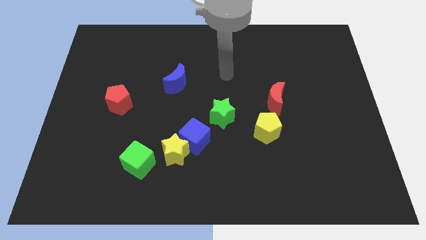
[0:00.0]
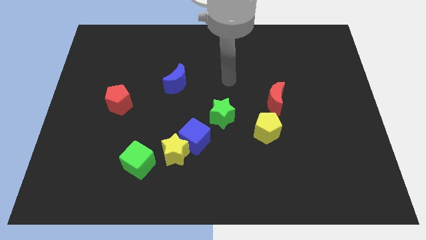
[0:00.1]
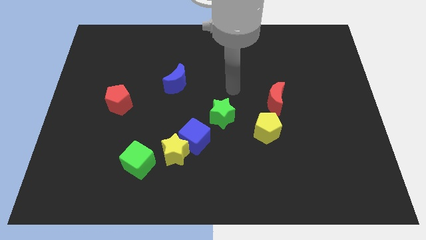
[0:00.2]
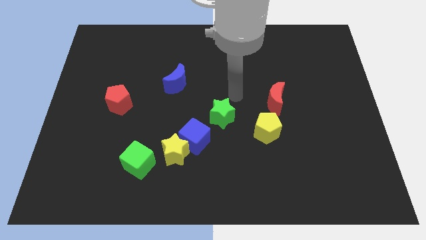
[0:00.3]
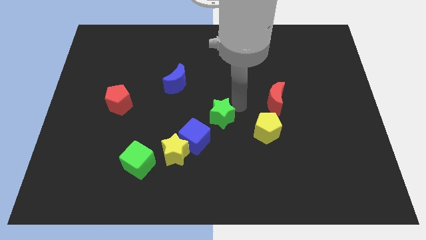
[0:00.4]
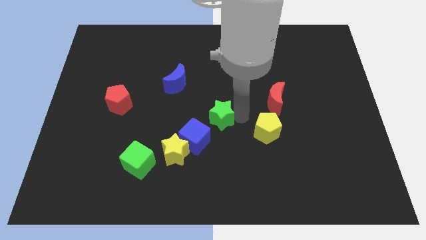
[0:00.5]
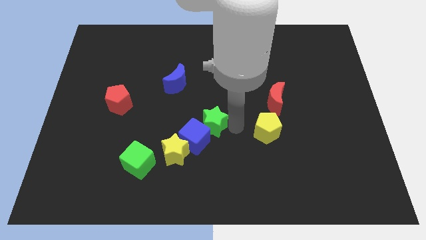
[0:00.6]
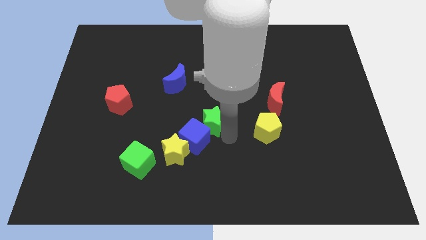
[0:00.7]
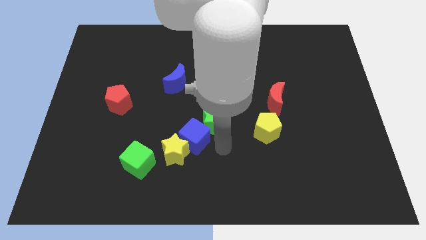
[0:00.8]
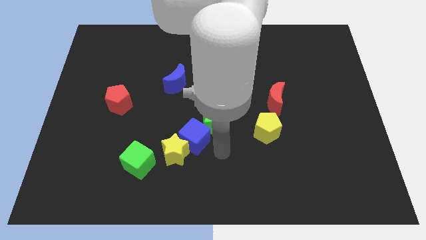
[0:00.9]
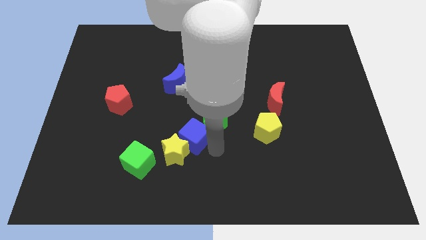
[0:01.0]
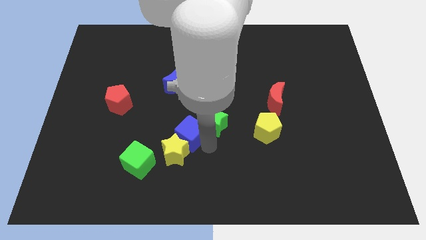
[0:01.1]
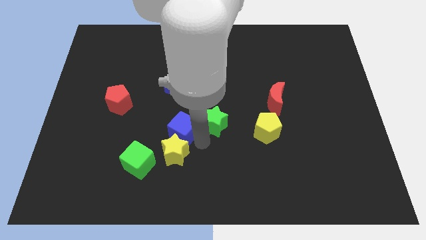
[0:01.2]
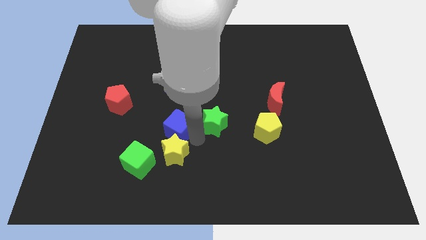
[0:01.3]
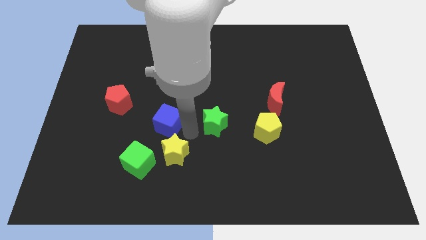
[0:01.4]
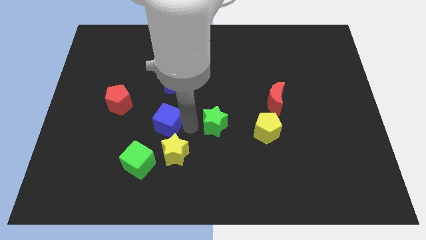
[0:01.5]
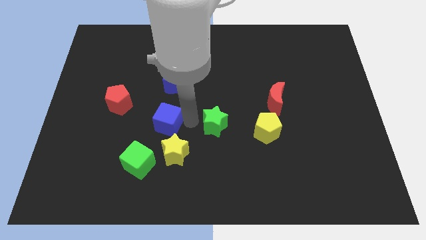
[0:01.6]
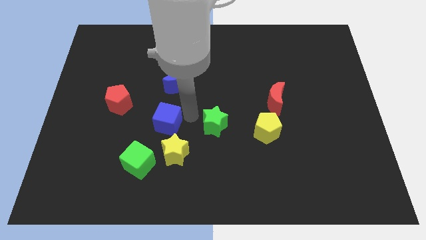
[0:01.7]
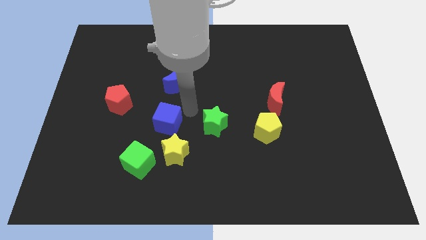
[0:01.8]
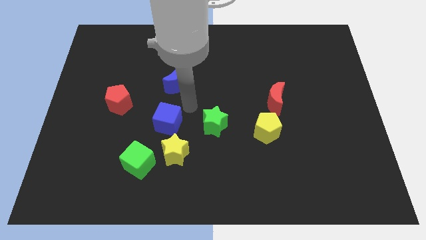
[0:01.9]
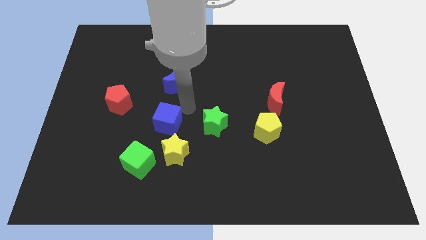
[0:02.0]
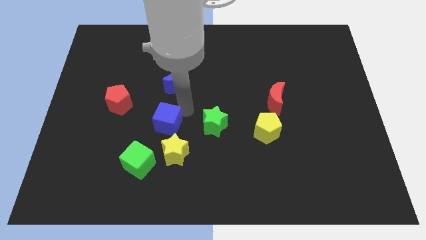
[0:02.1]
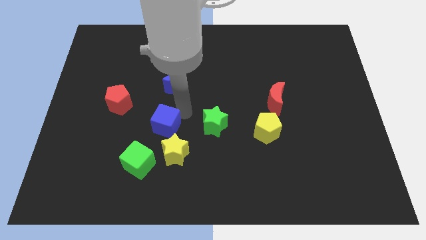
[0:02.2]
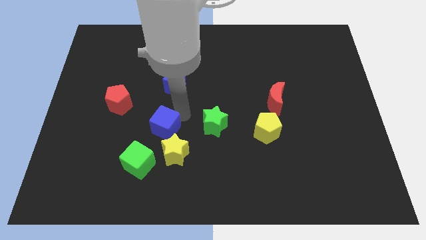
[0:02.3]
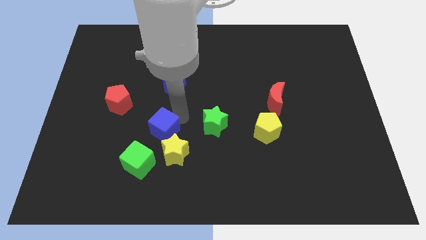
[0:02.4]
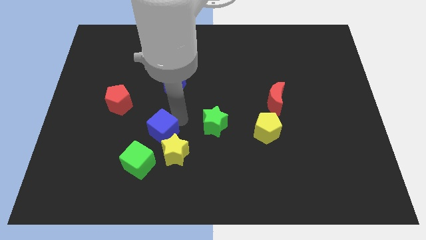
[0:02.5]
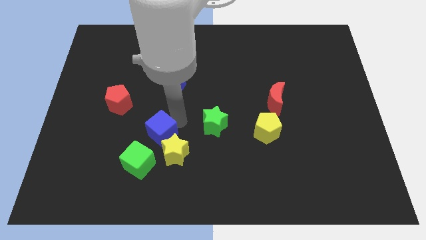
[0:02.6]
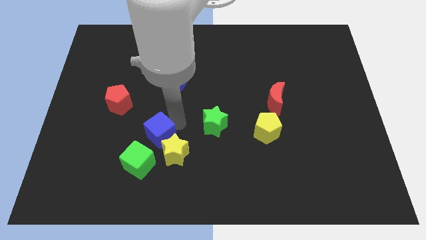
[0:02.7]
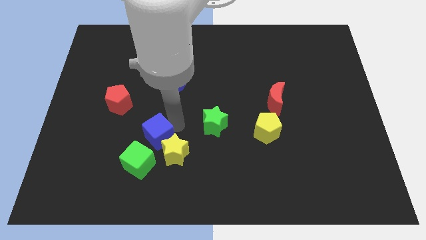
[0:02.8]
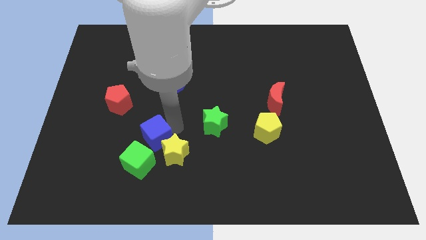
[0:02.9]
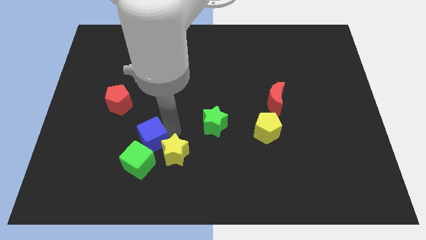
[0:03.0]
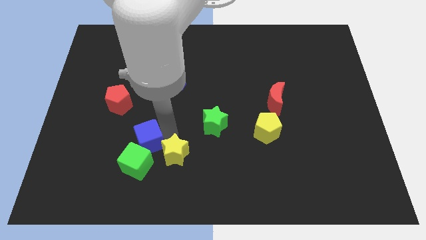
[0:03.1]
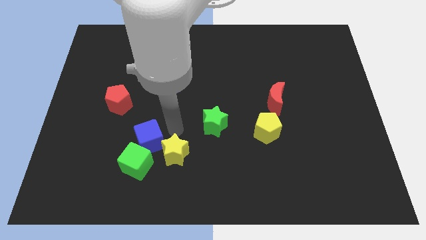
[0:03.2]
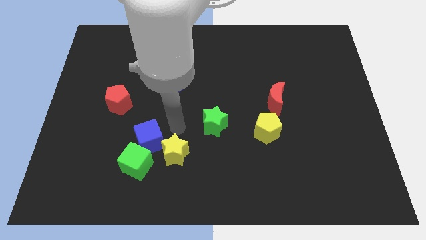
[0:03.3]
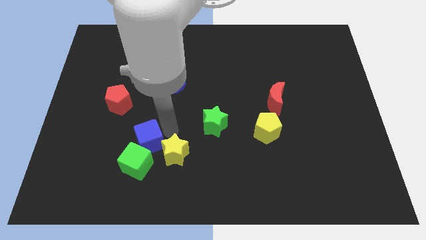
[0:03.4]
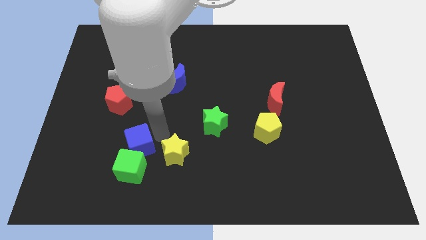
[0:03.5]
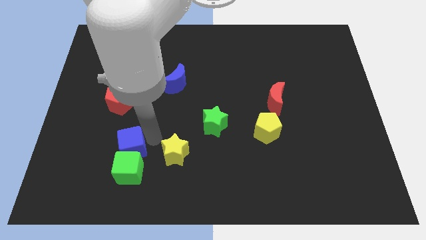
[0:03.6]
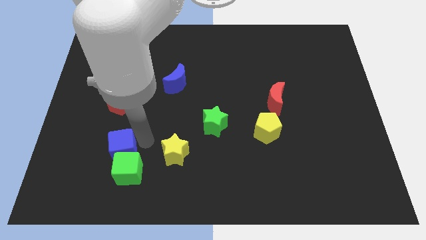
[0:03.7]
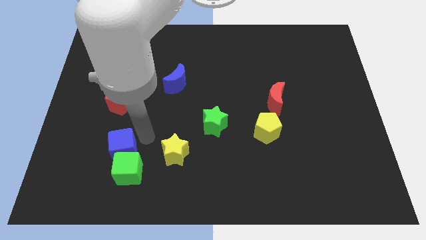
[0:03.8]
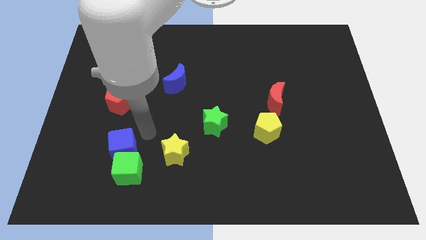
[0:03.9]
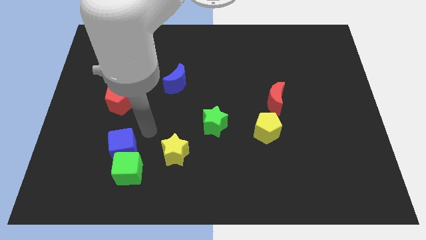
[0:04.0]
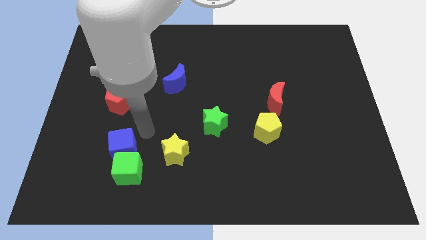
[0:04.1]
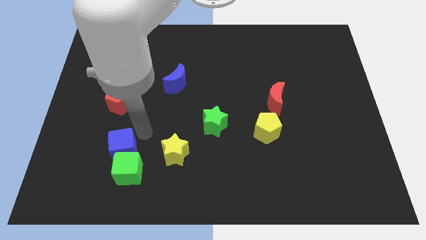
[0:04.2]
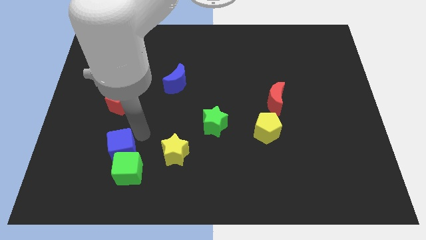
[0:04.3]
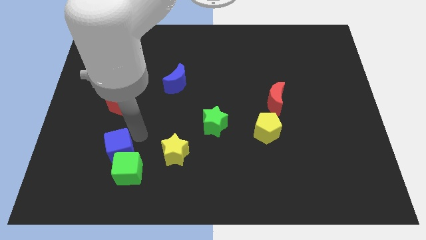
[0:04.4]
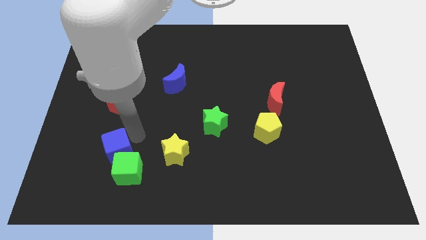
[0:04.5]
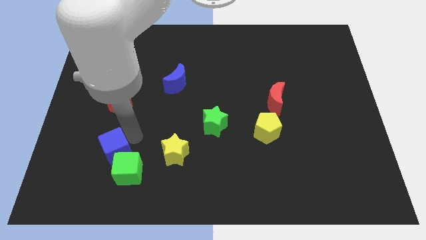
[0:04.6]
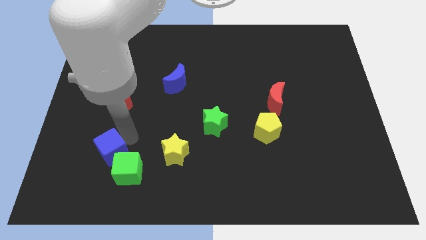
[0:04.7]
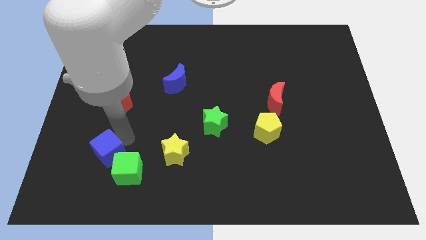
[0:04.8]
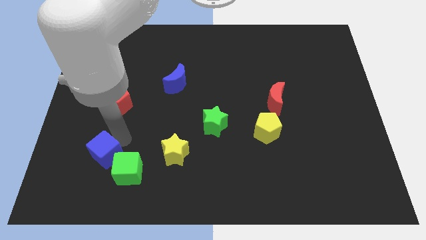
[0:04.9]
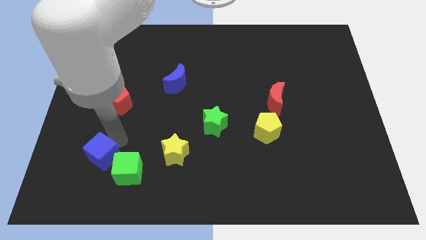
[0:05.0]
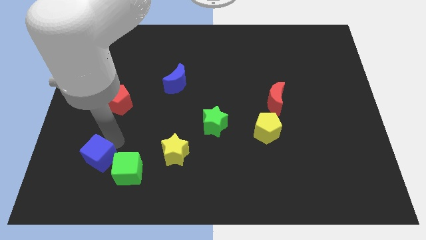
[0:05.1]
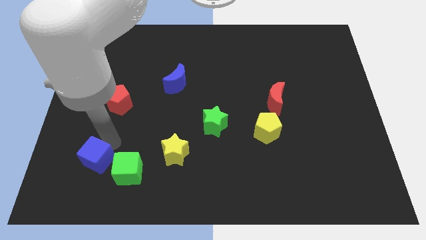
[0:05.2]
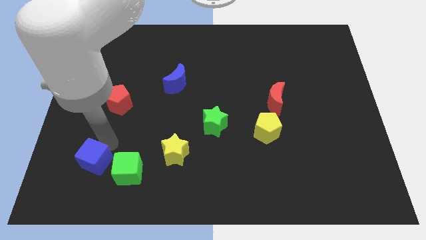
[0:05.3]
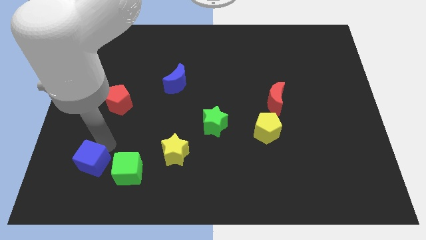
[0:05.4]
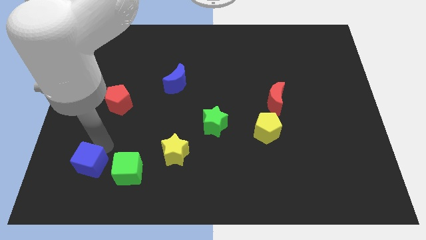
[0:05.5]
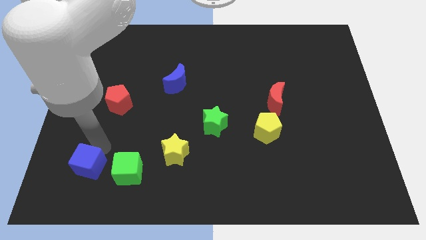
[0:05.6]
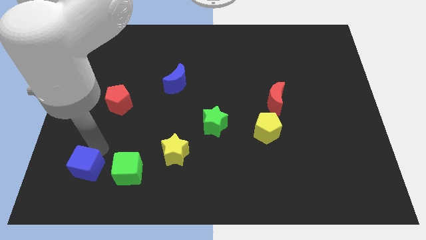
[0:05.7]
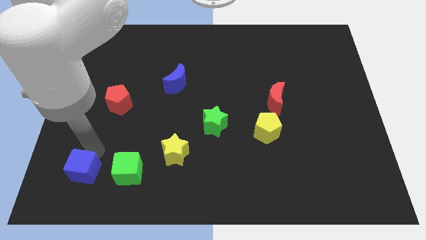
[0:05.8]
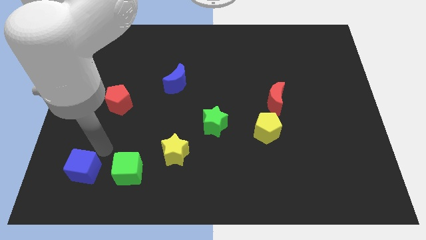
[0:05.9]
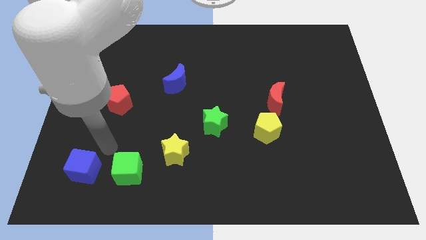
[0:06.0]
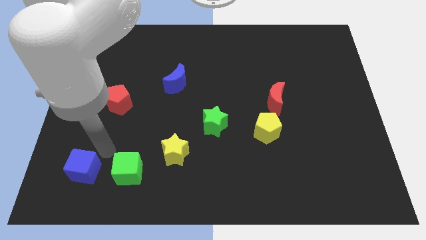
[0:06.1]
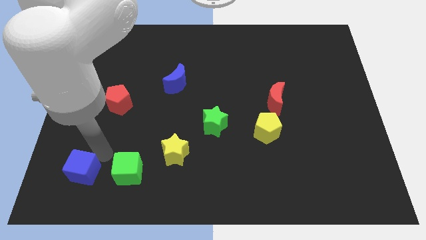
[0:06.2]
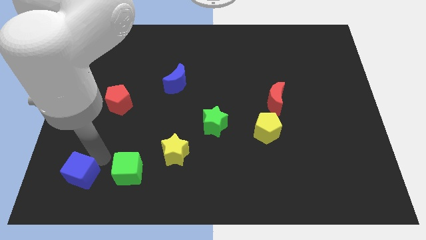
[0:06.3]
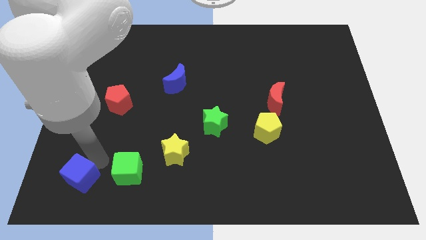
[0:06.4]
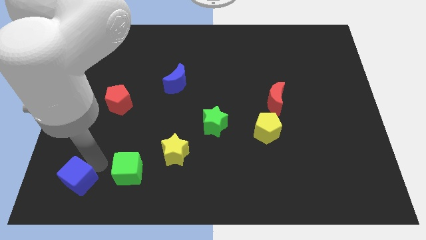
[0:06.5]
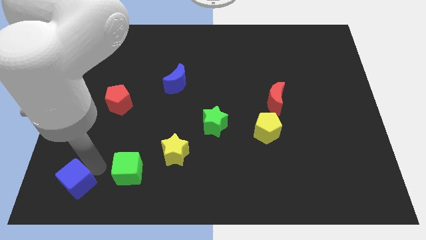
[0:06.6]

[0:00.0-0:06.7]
move the blue cube to the lower left corner
